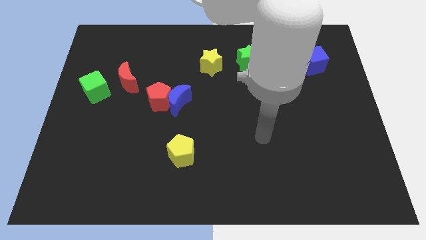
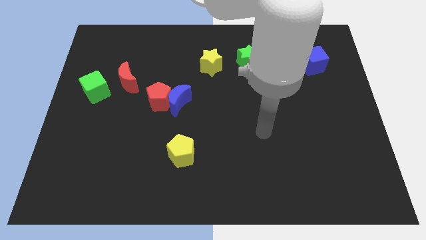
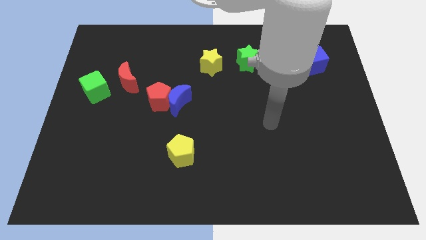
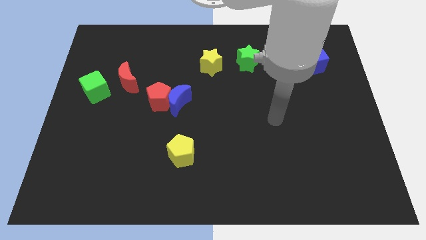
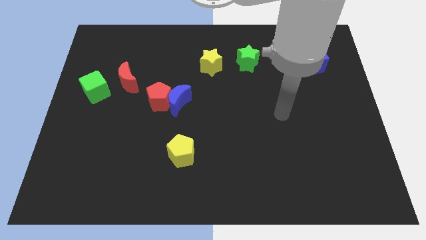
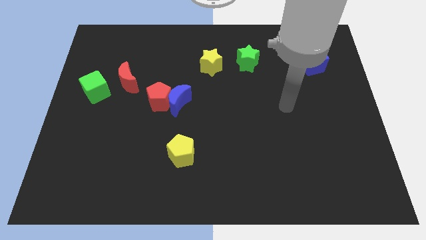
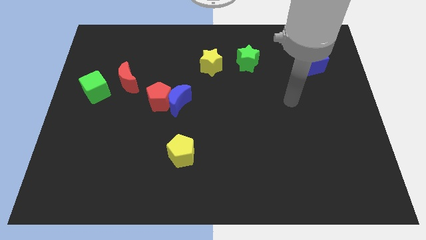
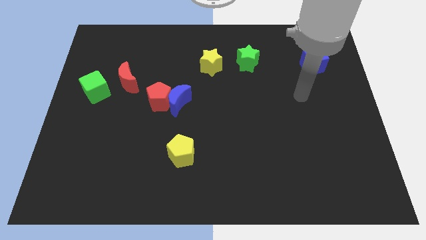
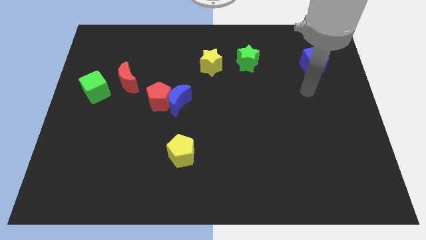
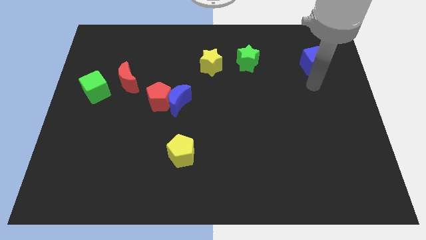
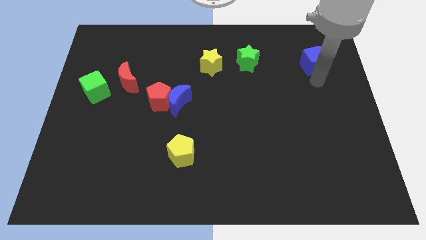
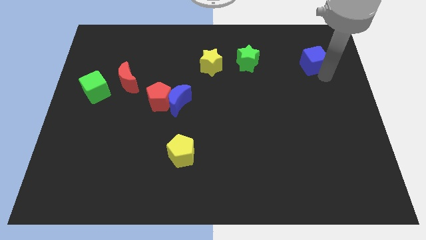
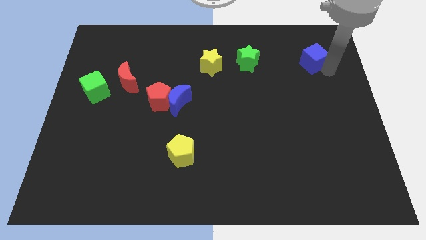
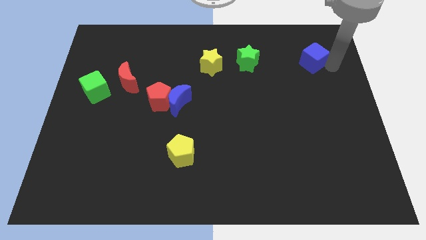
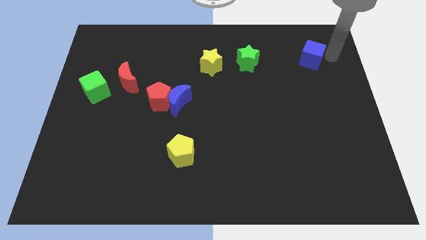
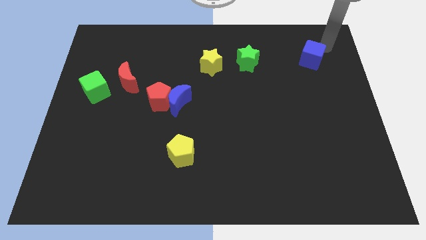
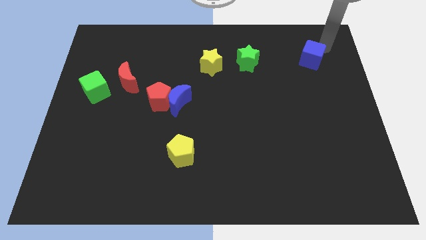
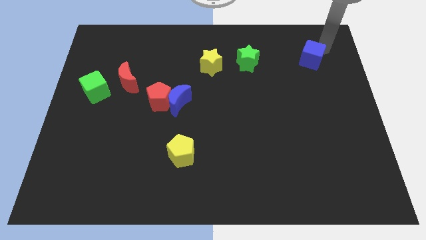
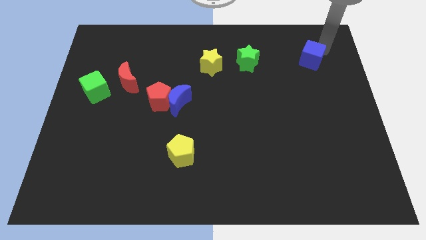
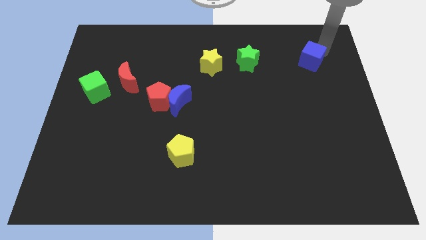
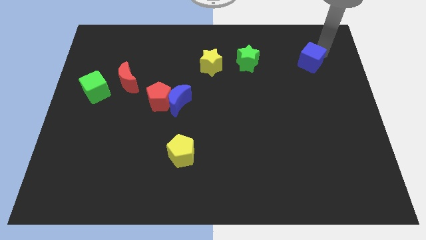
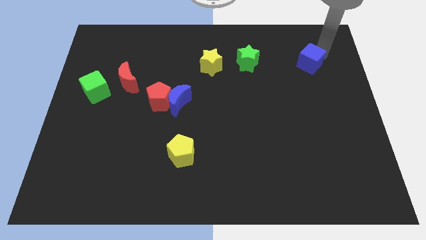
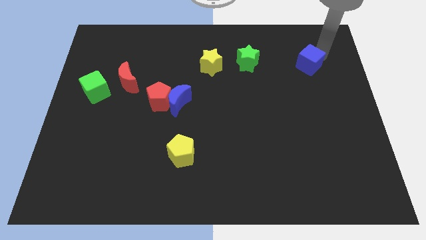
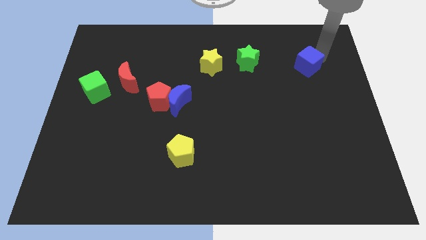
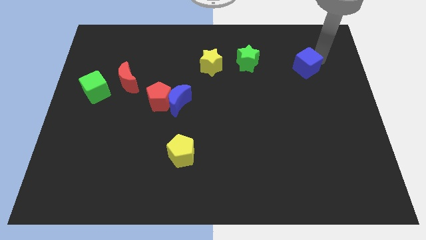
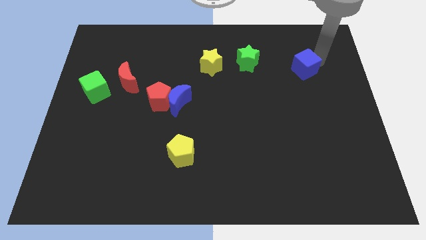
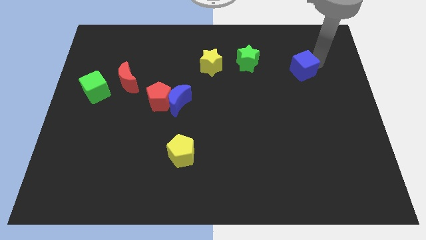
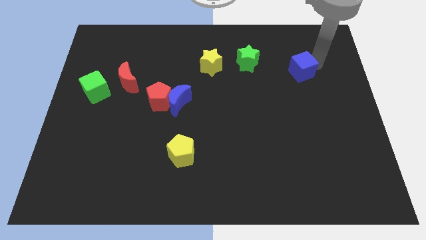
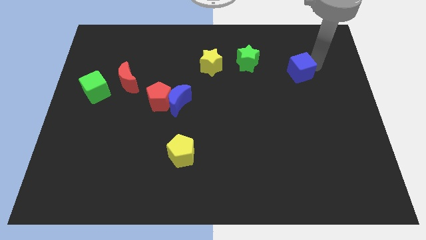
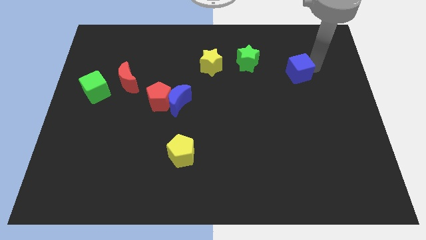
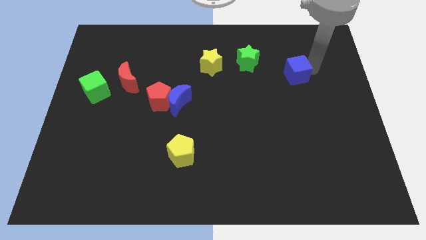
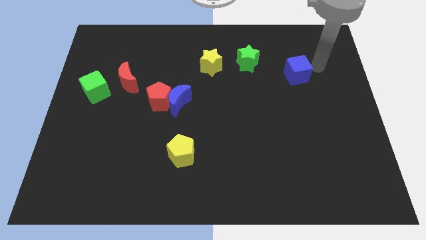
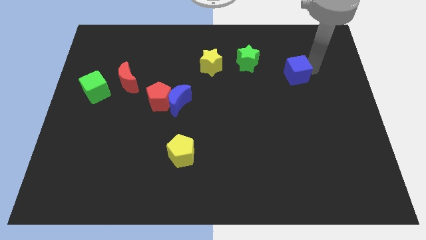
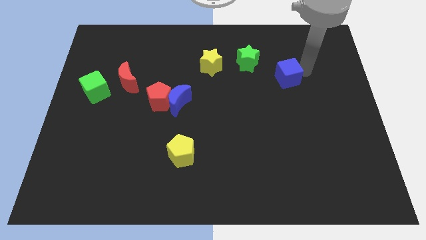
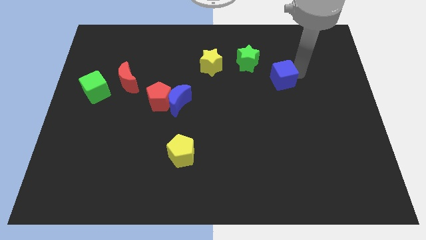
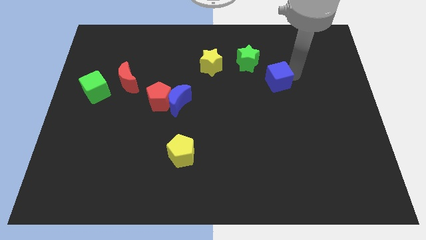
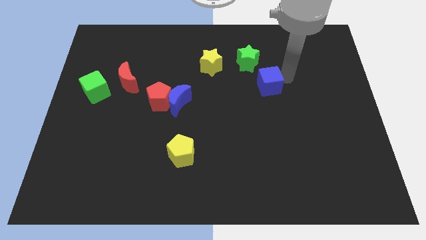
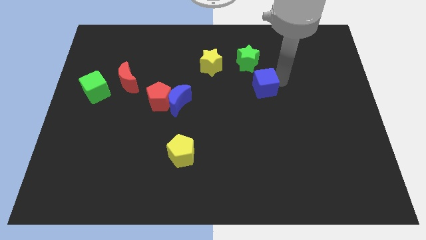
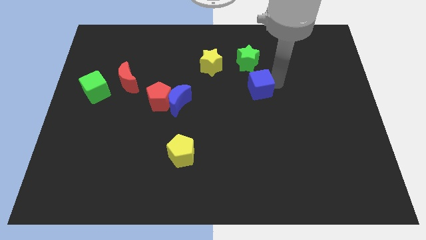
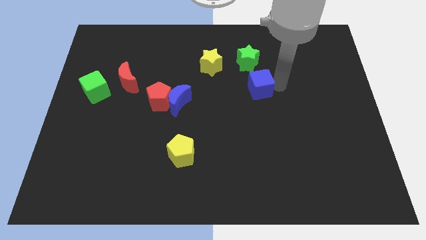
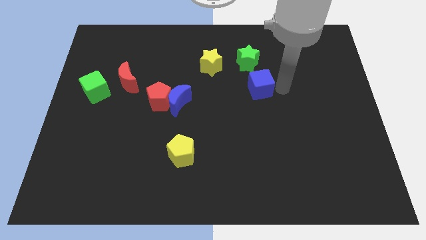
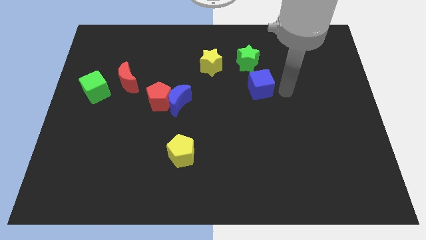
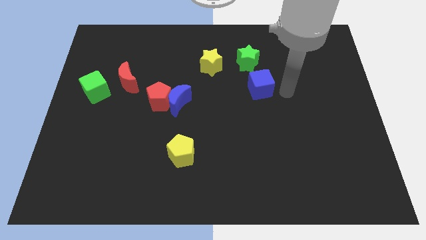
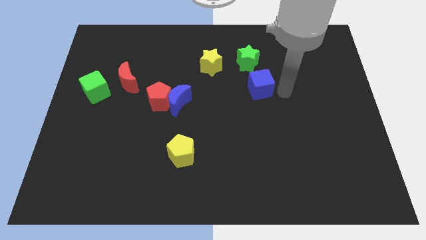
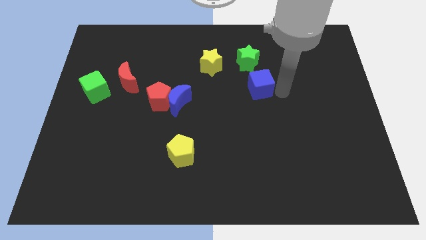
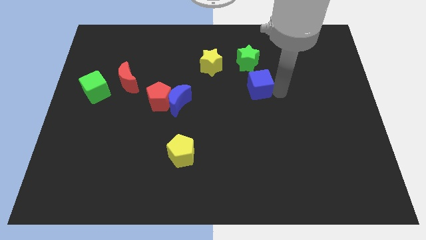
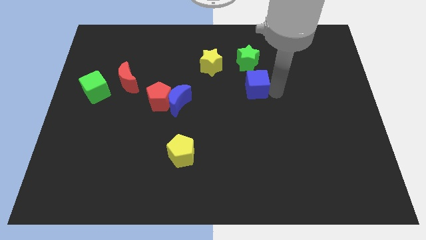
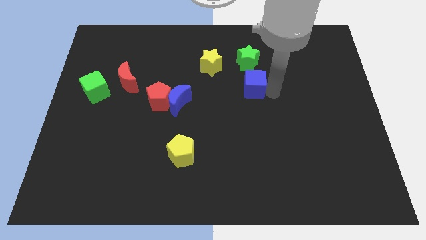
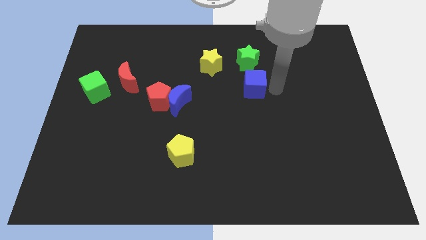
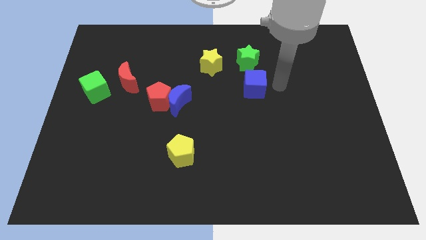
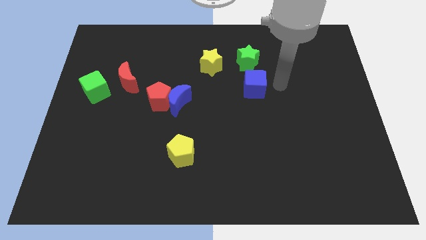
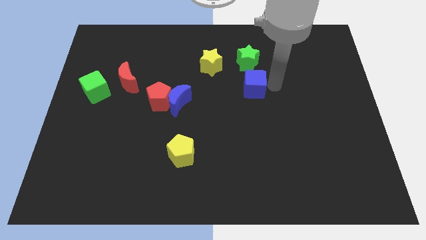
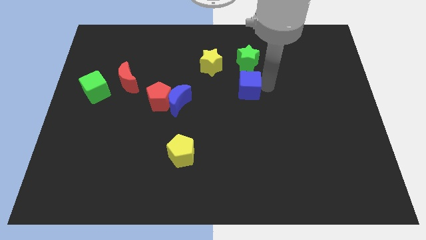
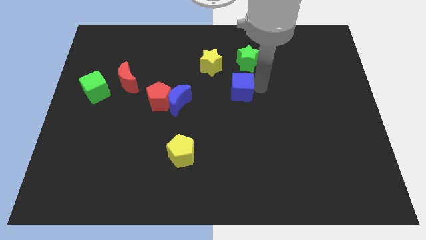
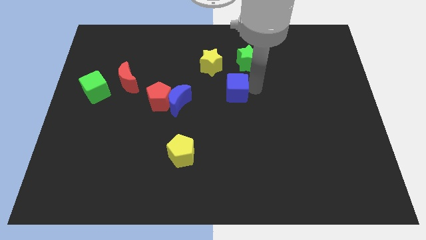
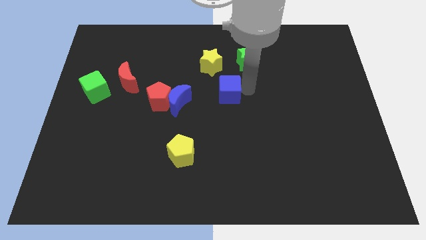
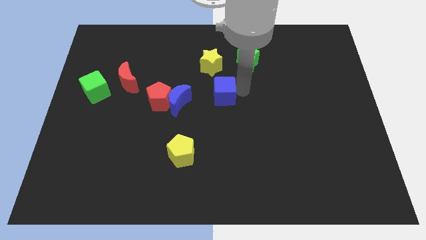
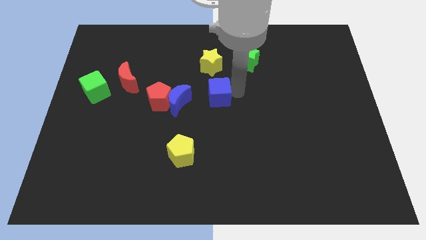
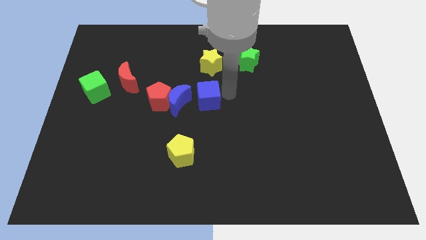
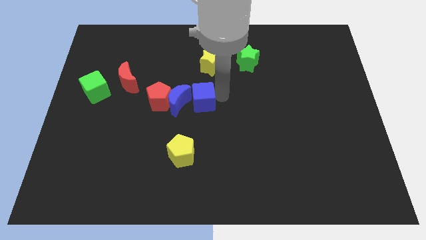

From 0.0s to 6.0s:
move the blue cube close to the blue moon

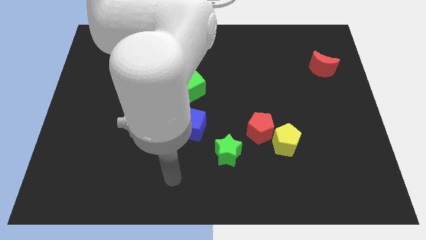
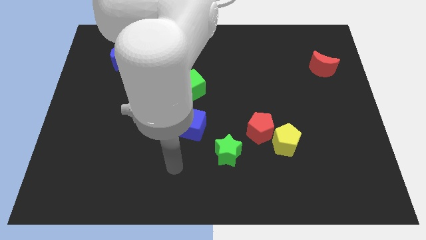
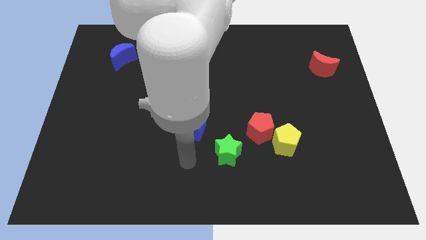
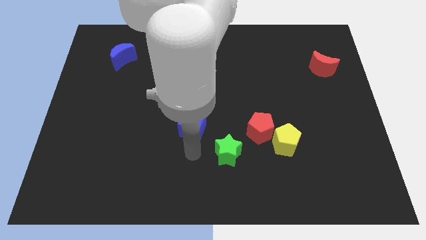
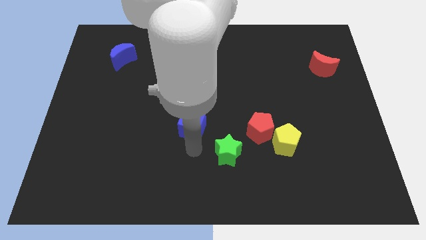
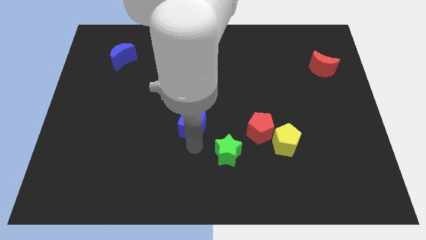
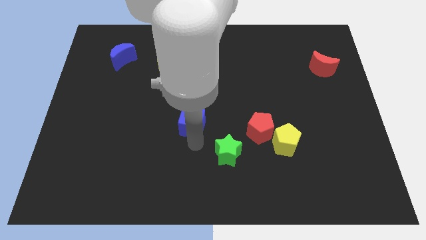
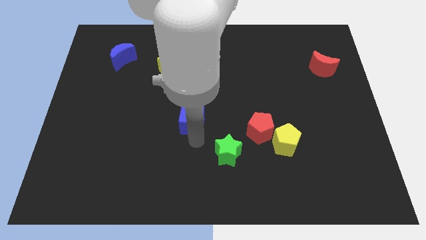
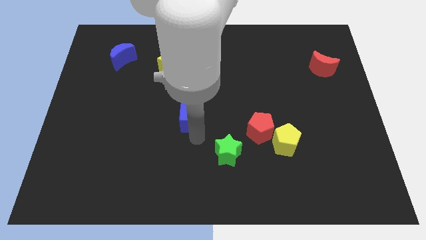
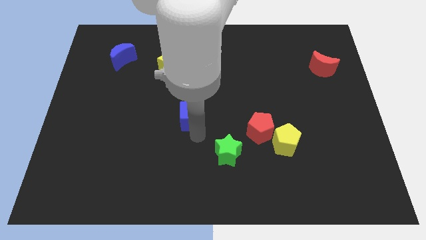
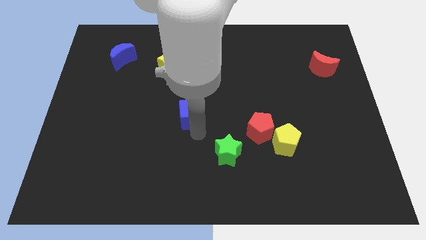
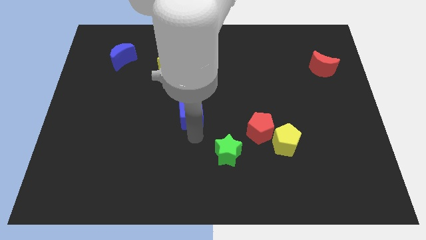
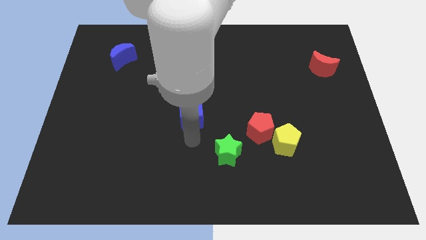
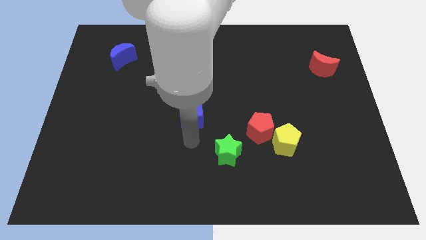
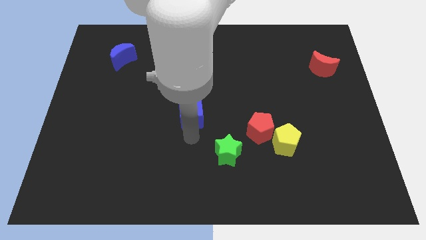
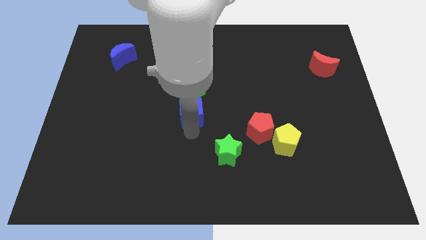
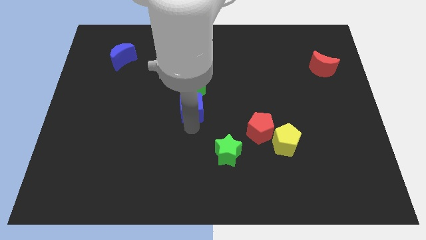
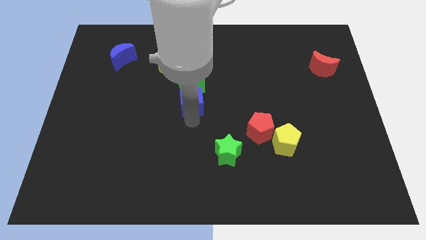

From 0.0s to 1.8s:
push the blue cube towards the green cube
